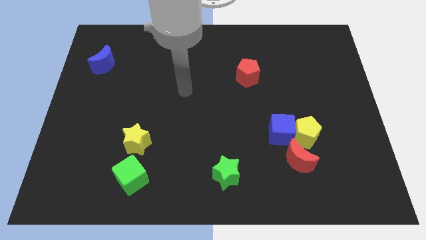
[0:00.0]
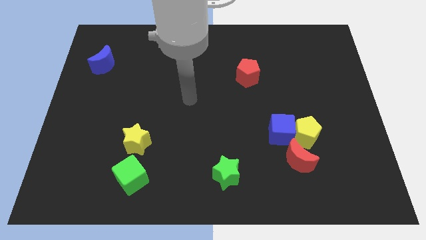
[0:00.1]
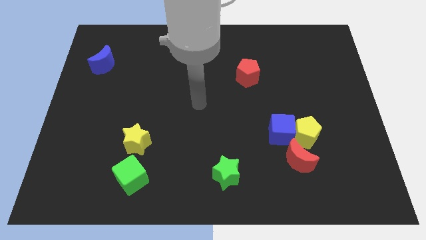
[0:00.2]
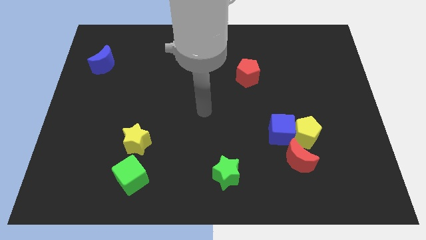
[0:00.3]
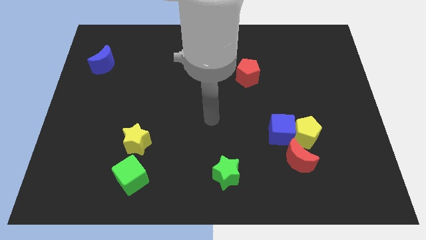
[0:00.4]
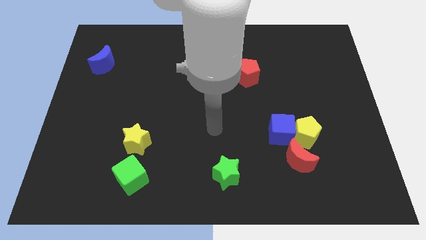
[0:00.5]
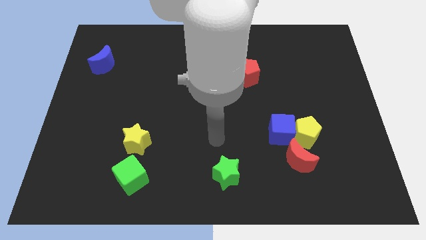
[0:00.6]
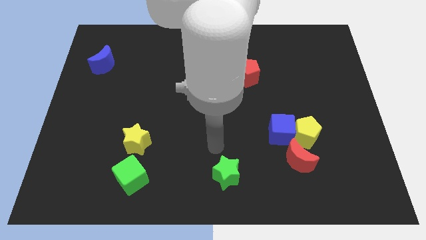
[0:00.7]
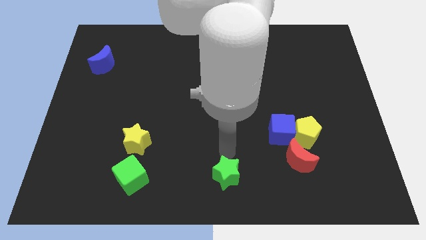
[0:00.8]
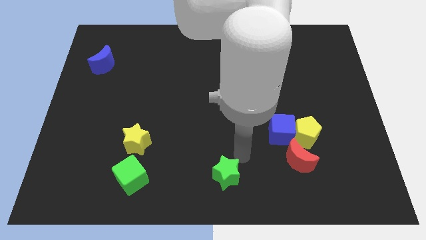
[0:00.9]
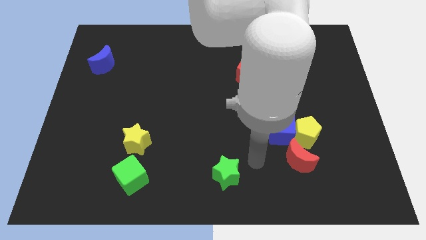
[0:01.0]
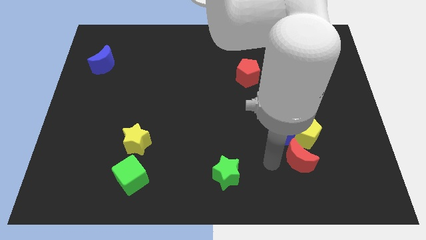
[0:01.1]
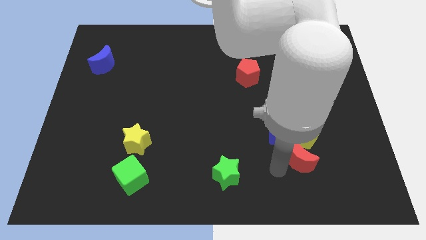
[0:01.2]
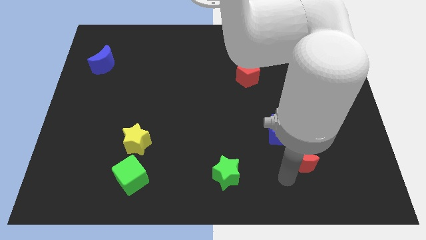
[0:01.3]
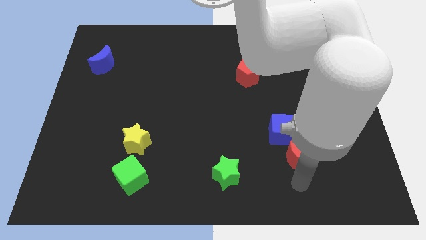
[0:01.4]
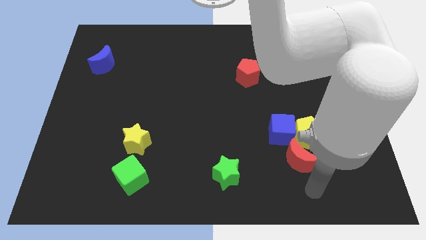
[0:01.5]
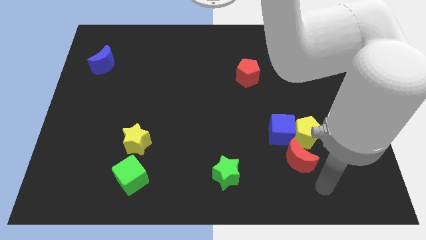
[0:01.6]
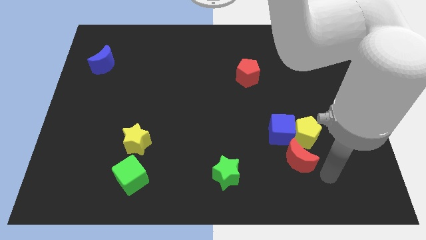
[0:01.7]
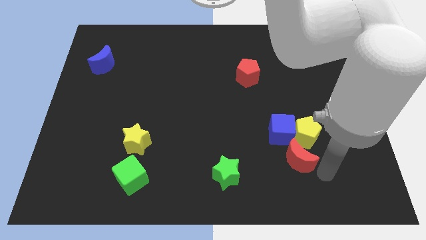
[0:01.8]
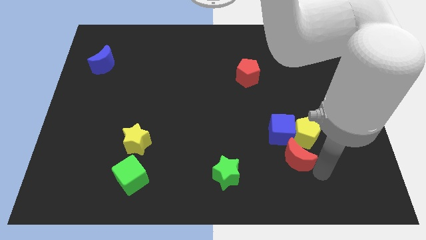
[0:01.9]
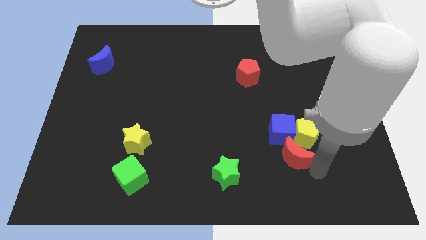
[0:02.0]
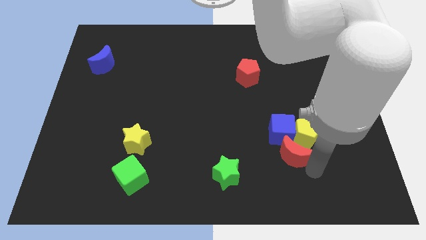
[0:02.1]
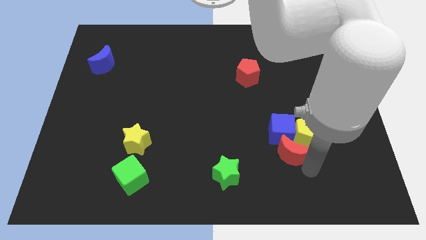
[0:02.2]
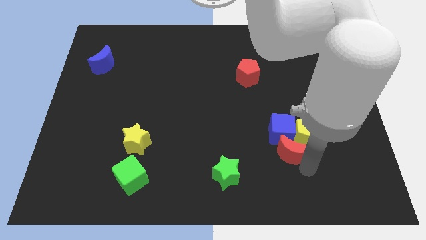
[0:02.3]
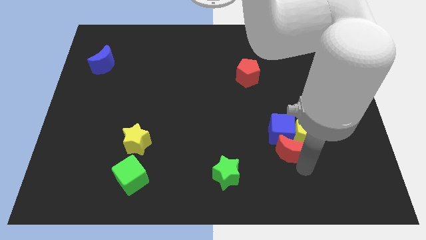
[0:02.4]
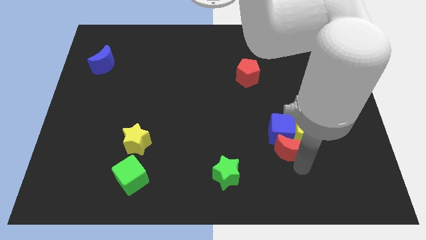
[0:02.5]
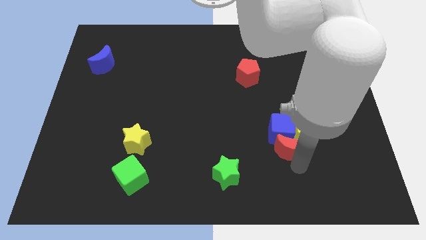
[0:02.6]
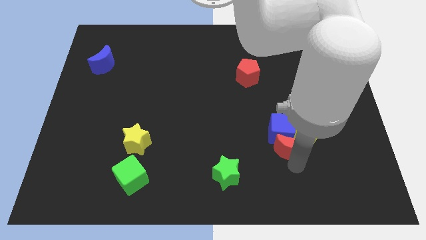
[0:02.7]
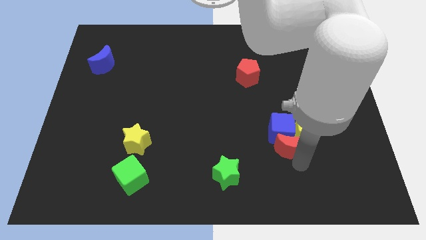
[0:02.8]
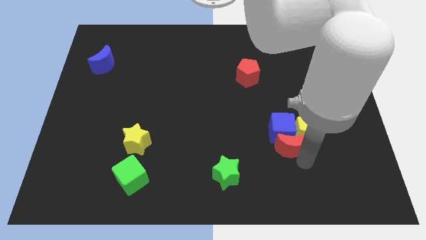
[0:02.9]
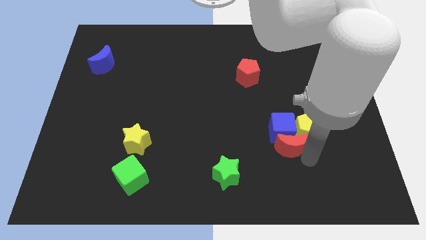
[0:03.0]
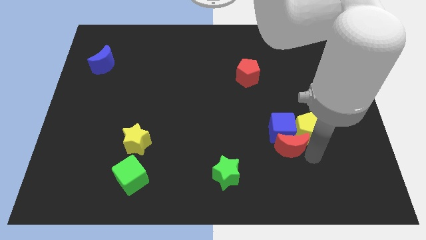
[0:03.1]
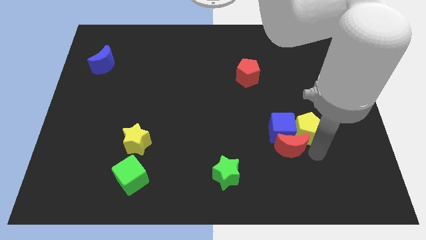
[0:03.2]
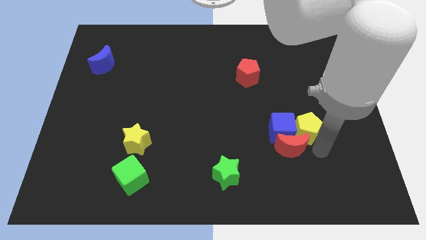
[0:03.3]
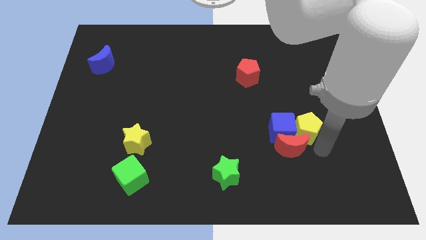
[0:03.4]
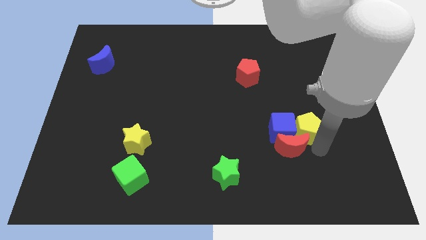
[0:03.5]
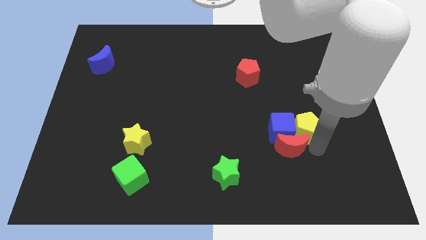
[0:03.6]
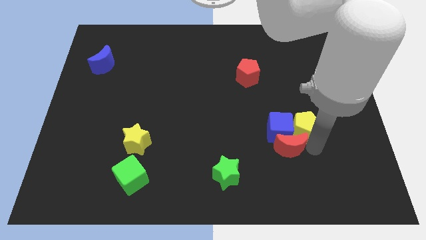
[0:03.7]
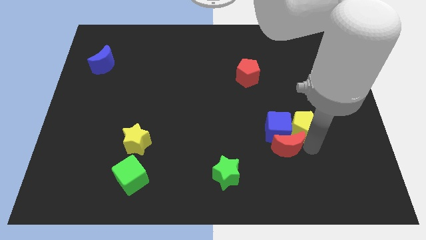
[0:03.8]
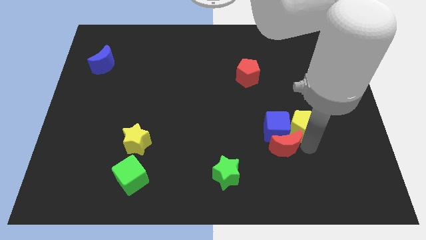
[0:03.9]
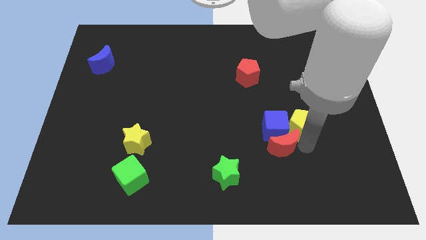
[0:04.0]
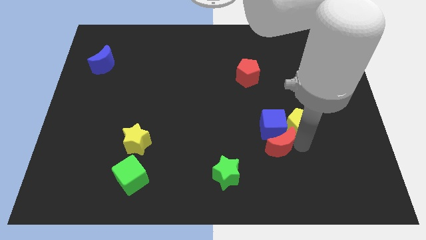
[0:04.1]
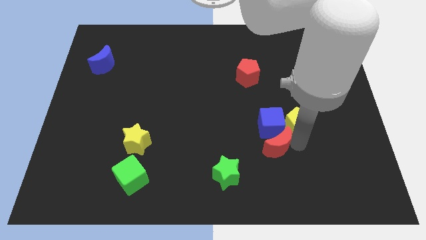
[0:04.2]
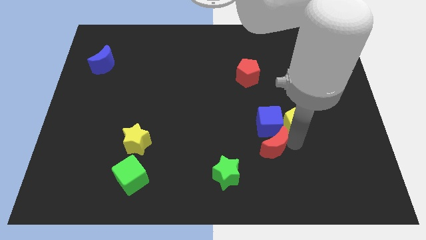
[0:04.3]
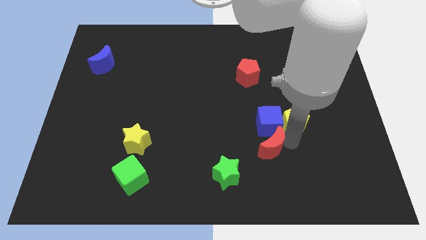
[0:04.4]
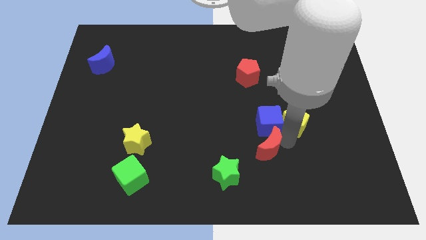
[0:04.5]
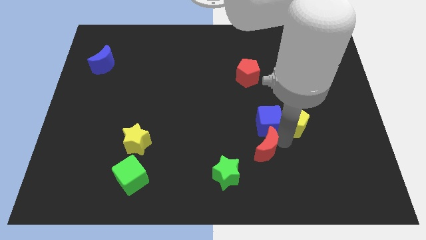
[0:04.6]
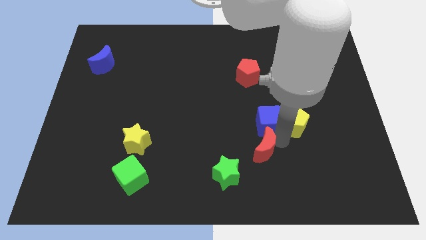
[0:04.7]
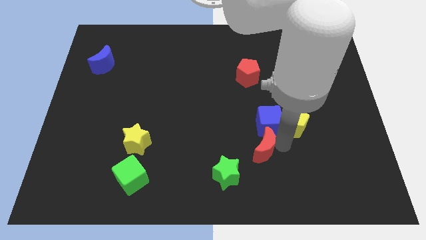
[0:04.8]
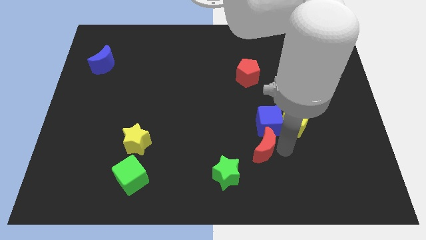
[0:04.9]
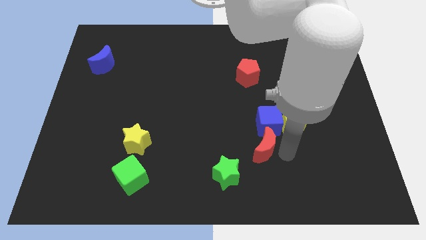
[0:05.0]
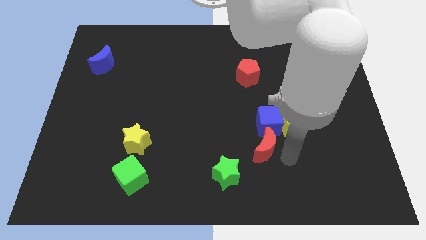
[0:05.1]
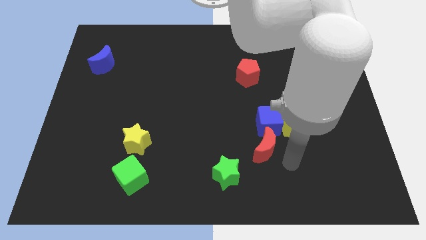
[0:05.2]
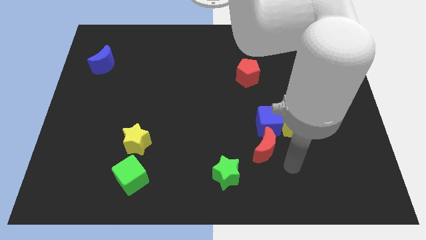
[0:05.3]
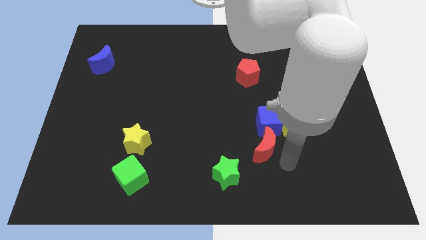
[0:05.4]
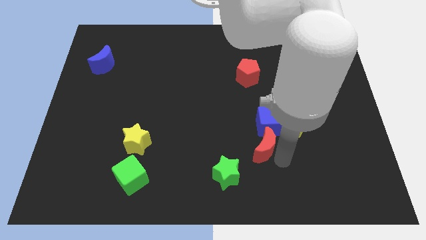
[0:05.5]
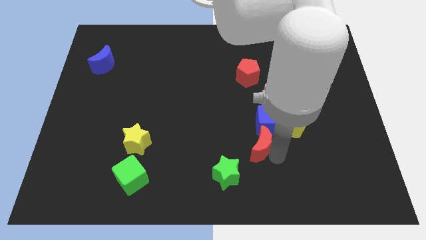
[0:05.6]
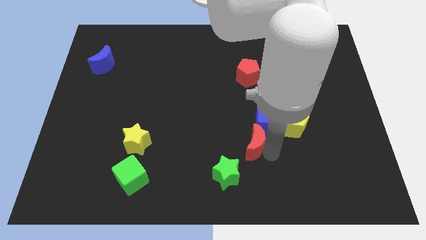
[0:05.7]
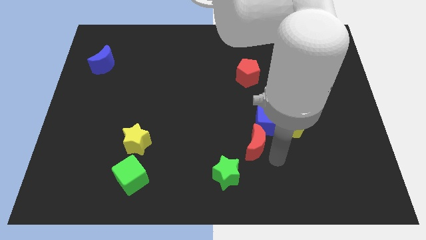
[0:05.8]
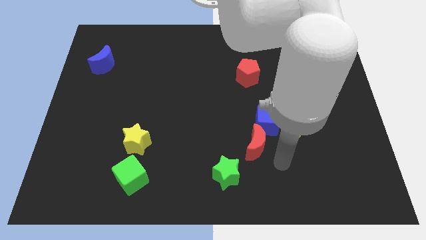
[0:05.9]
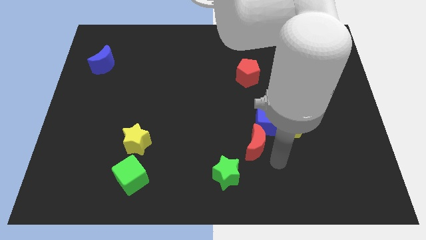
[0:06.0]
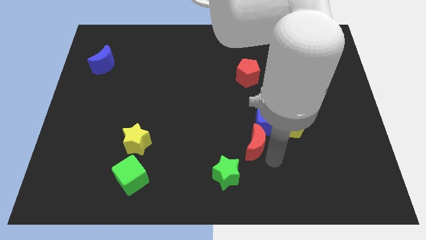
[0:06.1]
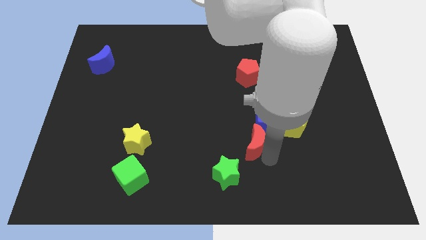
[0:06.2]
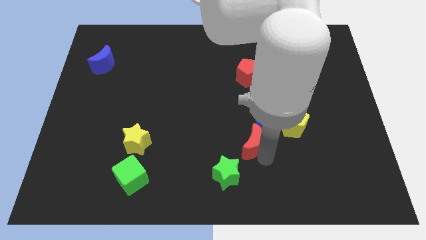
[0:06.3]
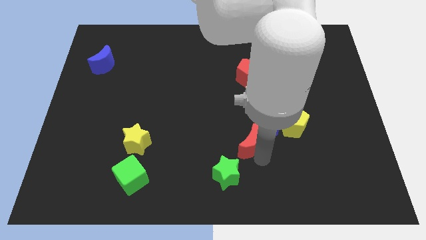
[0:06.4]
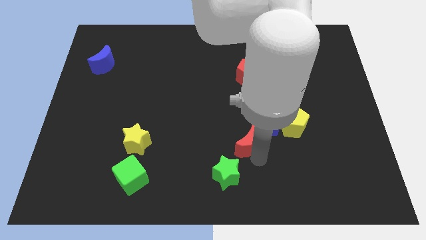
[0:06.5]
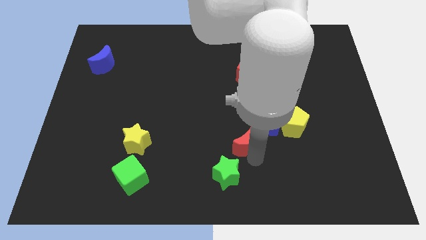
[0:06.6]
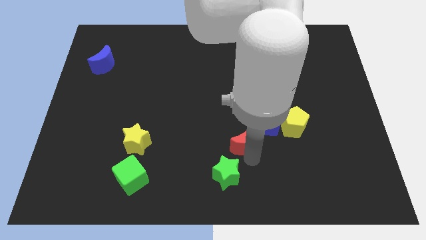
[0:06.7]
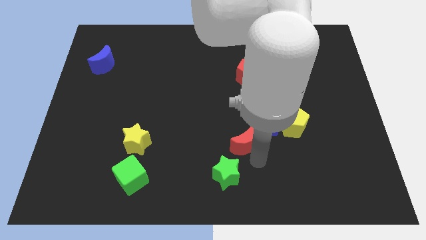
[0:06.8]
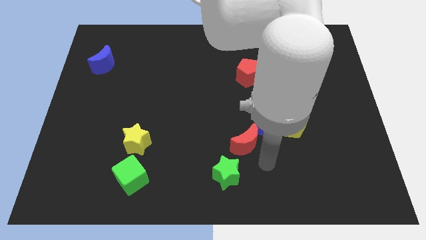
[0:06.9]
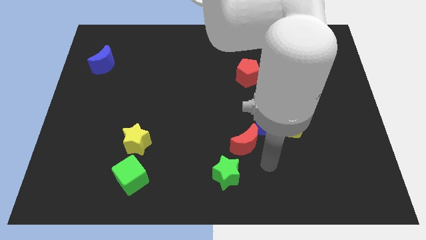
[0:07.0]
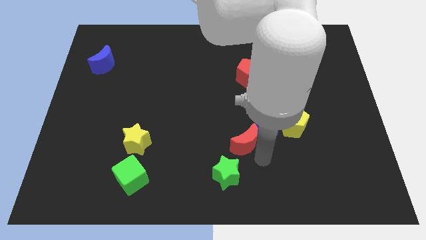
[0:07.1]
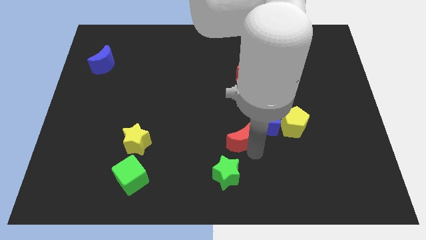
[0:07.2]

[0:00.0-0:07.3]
move the red moon to the left side of the blue cube
